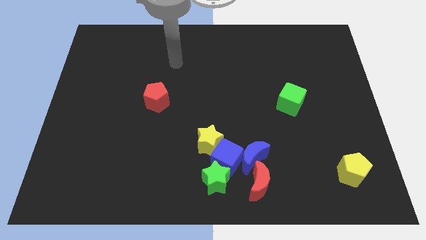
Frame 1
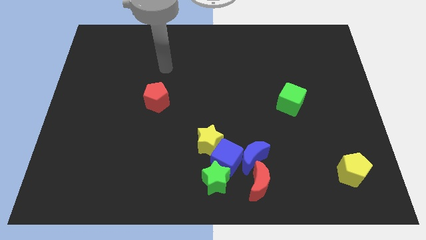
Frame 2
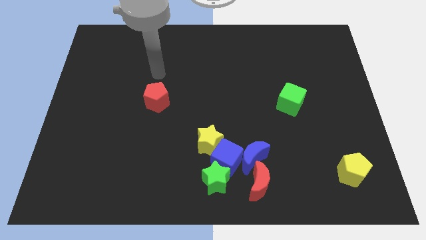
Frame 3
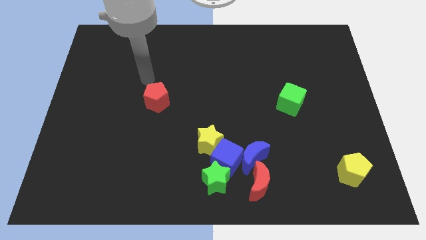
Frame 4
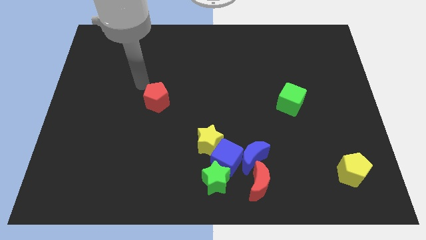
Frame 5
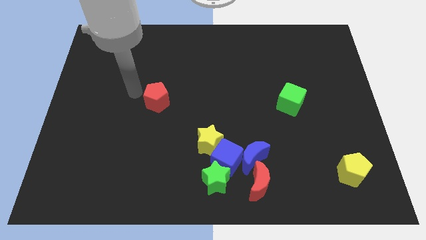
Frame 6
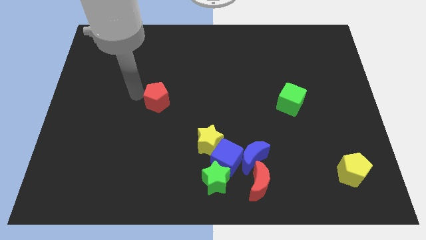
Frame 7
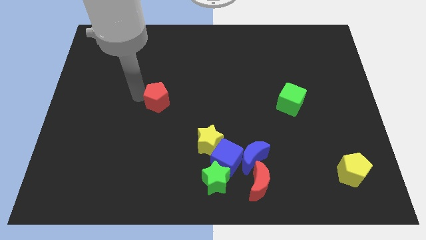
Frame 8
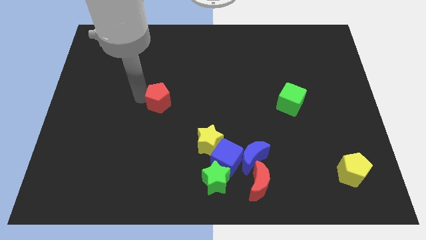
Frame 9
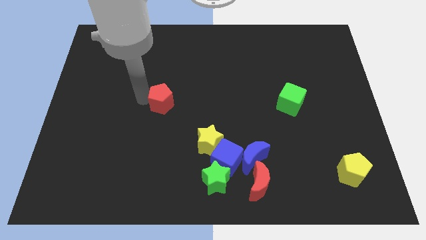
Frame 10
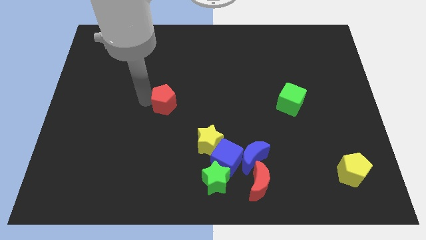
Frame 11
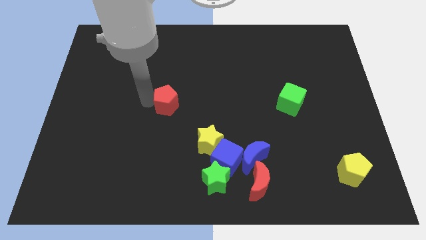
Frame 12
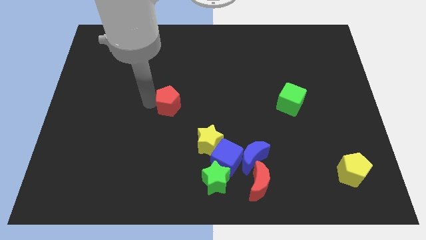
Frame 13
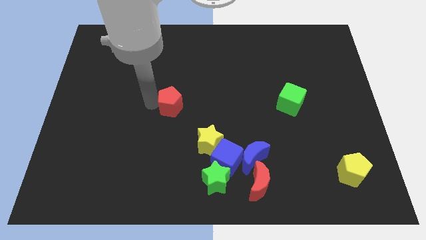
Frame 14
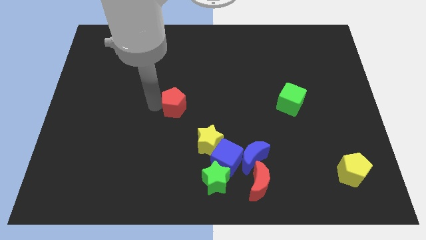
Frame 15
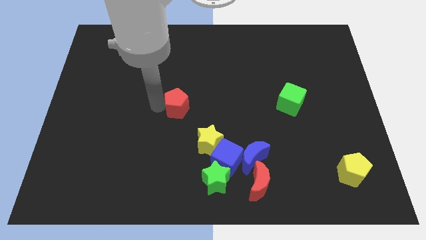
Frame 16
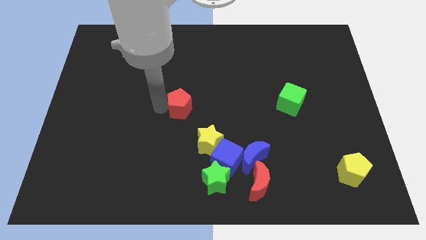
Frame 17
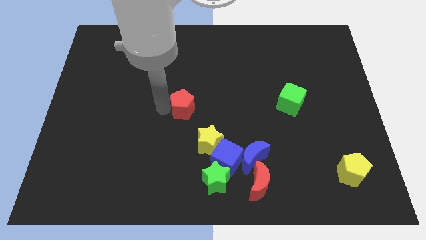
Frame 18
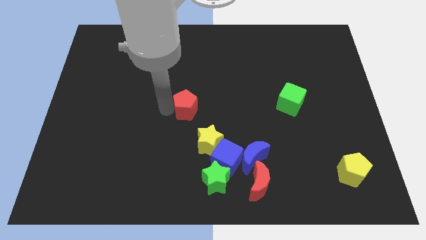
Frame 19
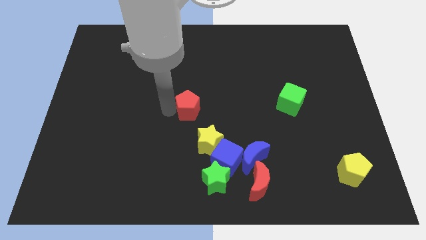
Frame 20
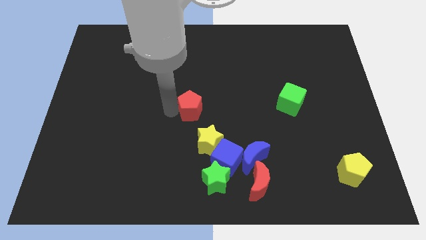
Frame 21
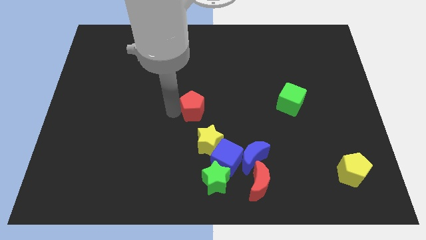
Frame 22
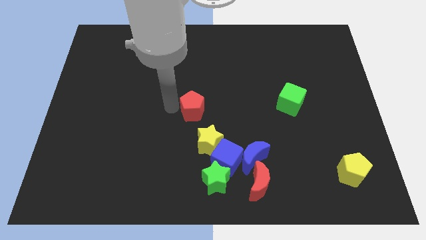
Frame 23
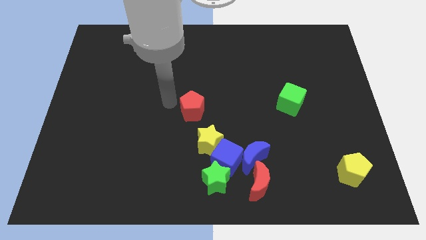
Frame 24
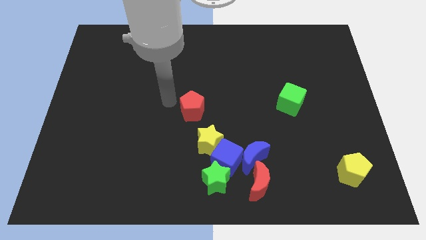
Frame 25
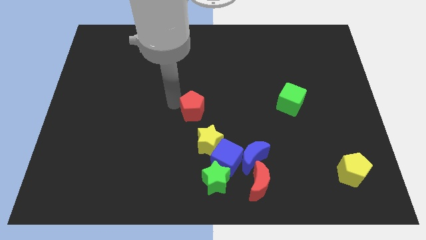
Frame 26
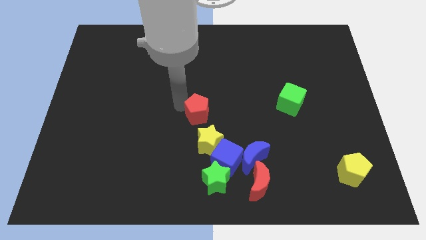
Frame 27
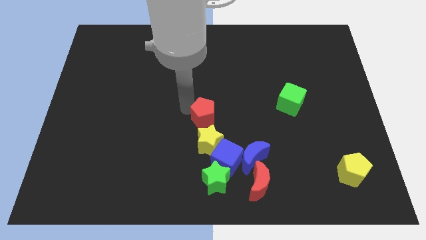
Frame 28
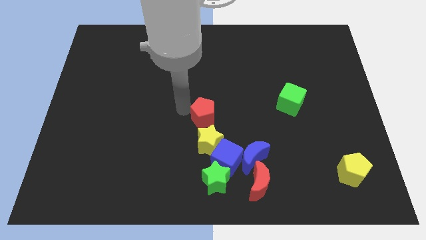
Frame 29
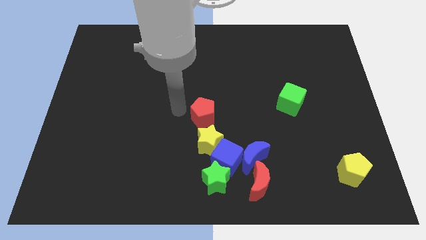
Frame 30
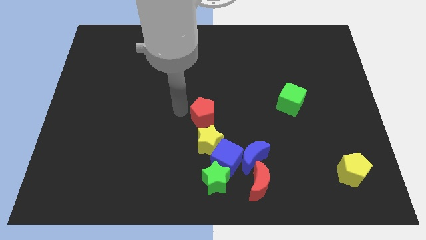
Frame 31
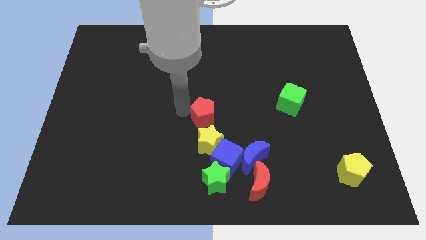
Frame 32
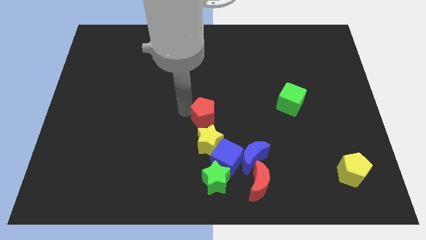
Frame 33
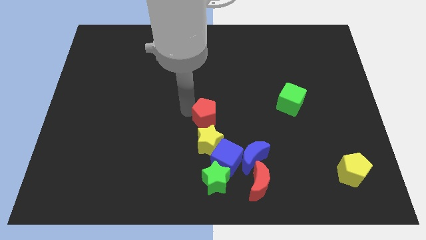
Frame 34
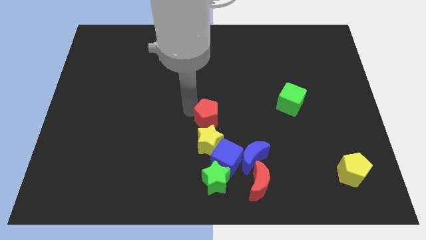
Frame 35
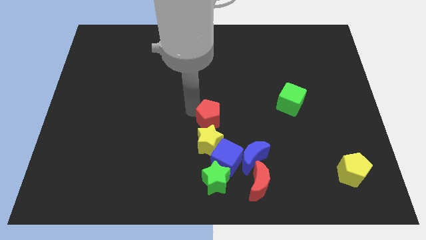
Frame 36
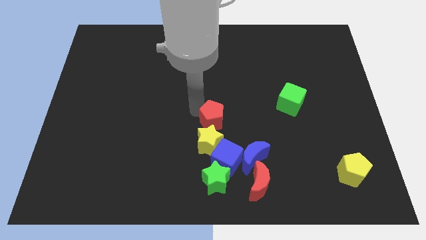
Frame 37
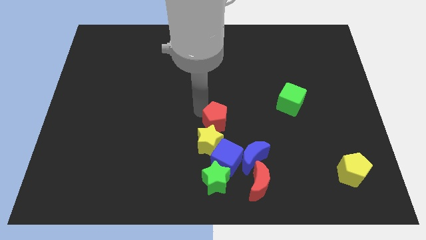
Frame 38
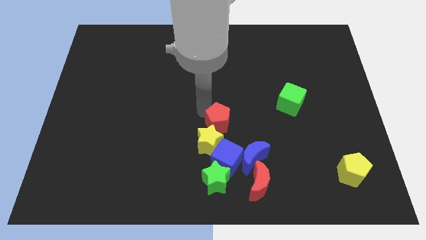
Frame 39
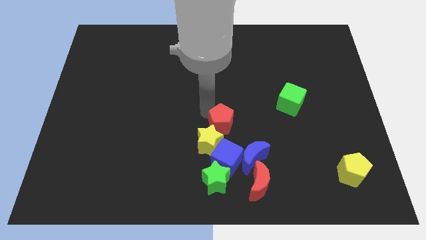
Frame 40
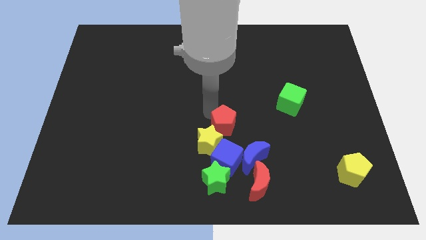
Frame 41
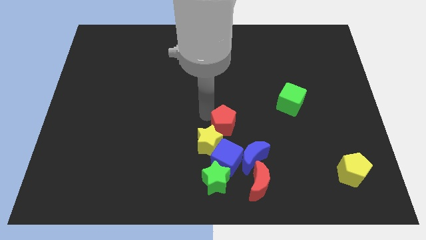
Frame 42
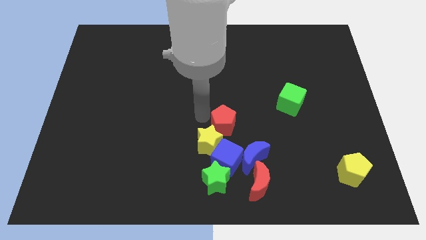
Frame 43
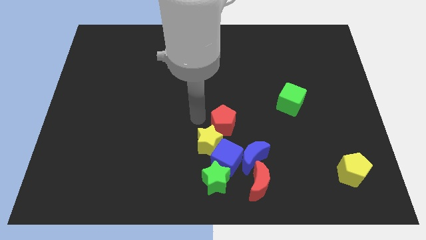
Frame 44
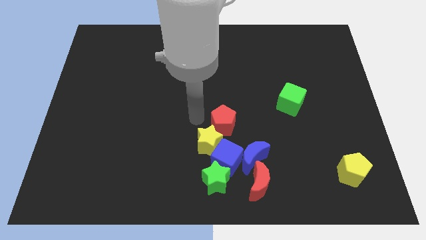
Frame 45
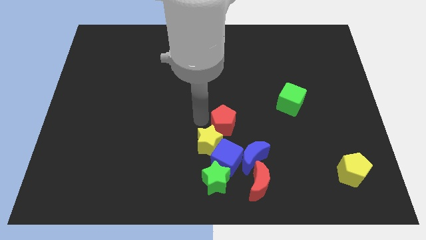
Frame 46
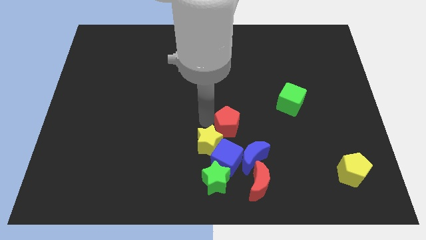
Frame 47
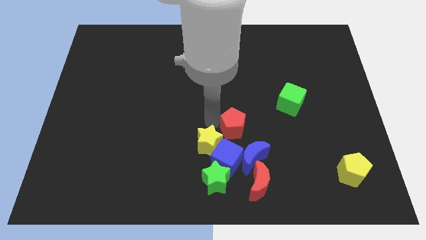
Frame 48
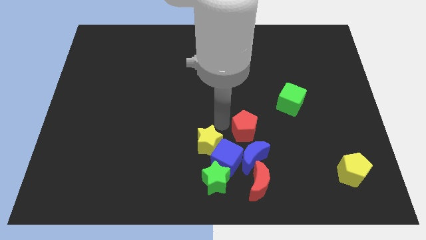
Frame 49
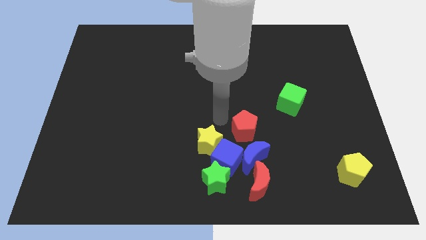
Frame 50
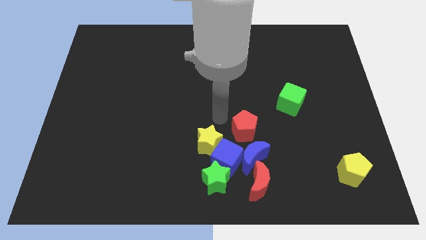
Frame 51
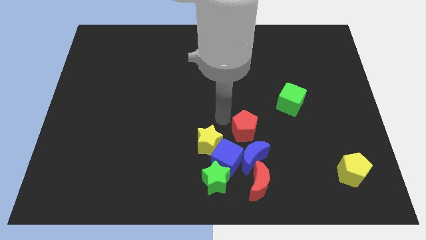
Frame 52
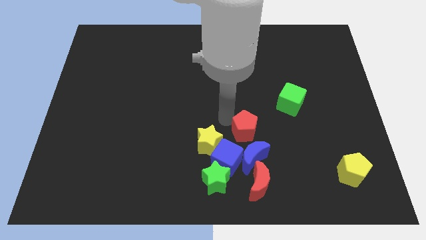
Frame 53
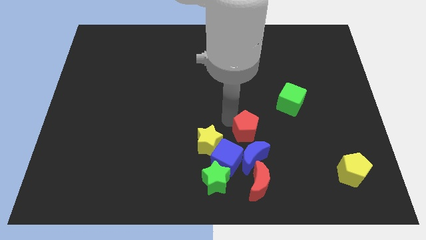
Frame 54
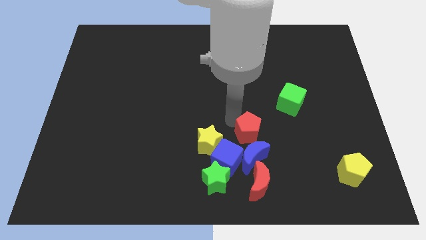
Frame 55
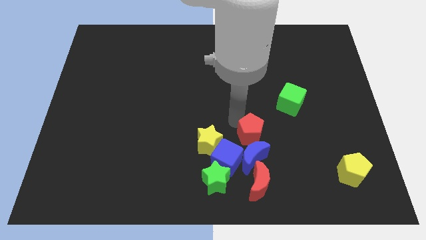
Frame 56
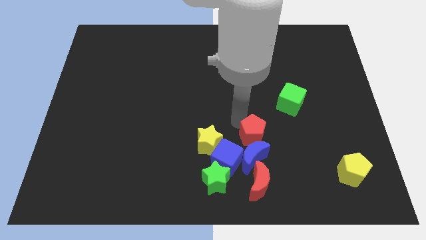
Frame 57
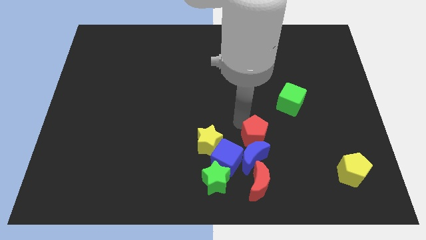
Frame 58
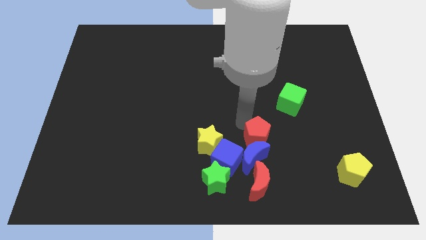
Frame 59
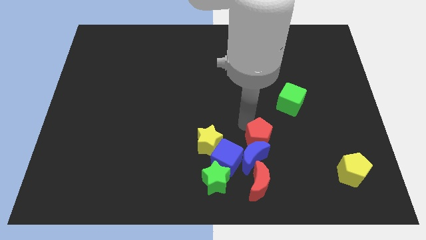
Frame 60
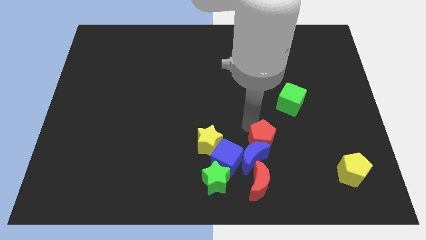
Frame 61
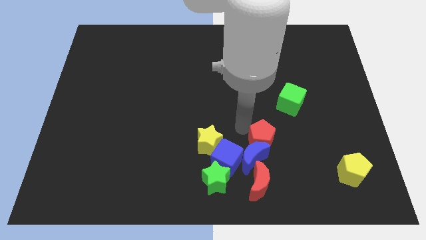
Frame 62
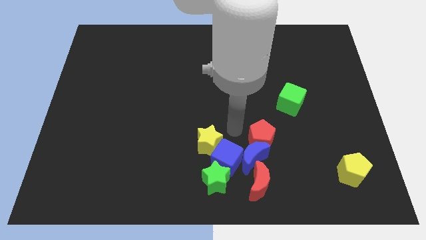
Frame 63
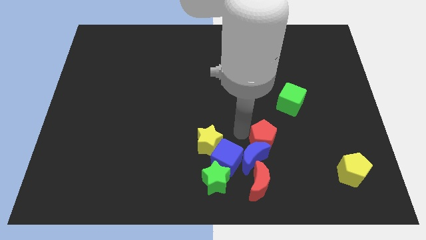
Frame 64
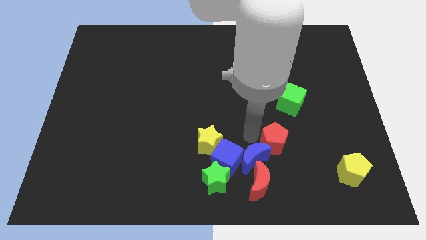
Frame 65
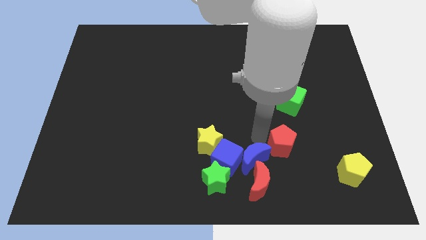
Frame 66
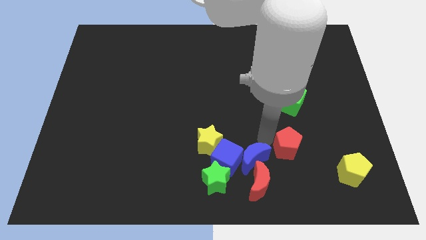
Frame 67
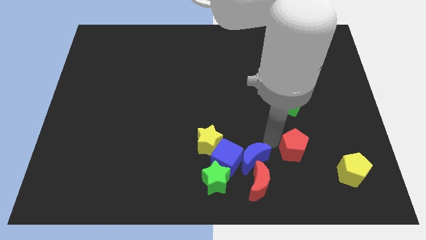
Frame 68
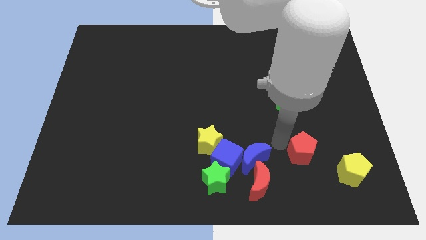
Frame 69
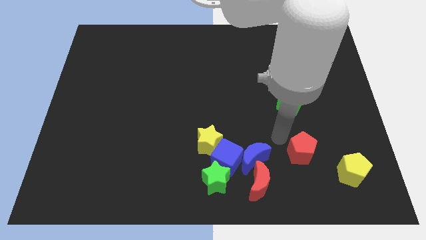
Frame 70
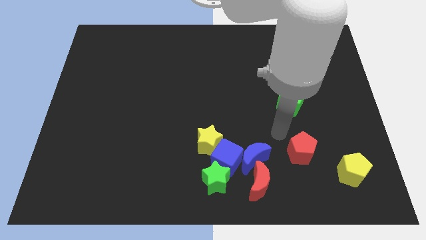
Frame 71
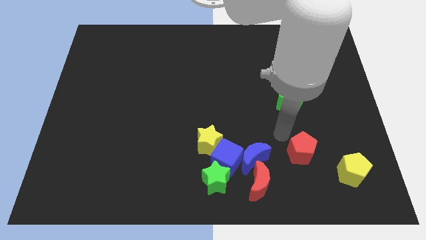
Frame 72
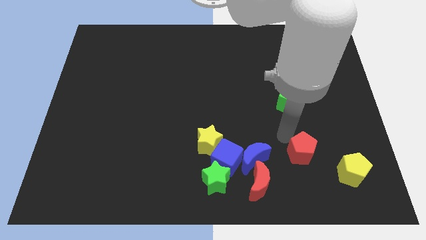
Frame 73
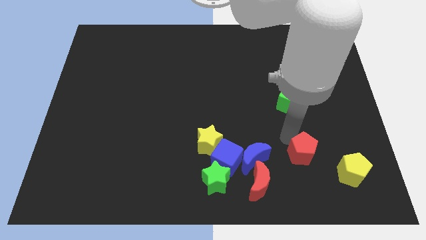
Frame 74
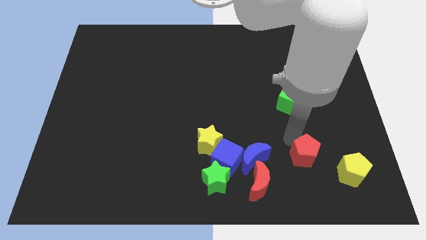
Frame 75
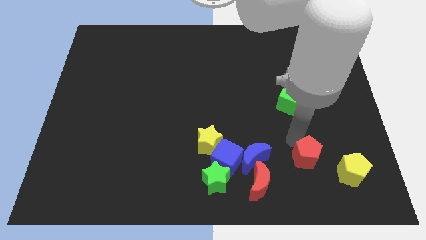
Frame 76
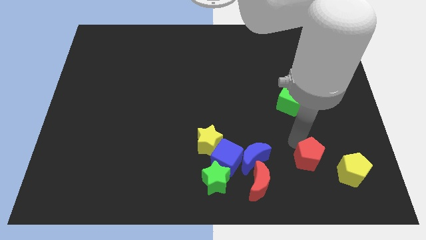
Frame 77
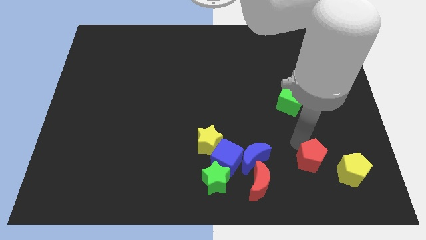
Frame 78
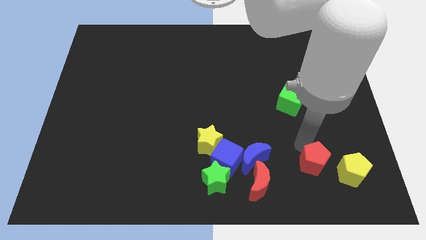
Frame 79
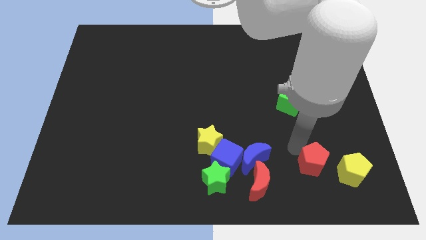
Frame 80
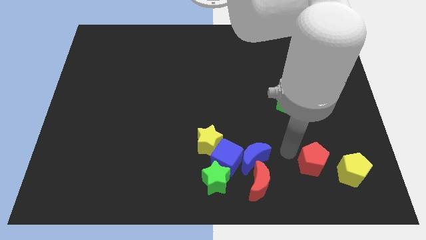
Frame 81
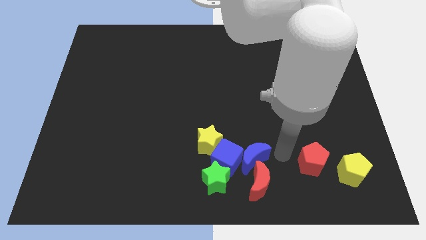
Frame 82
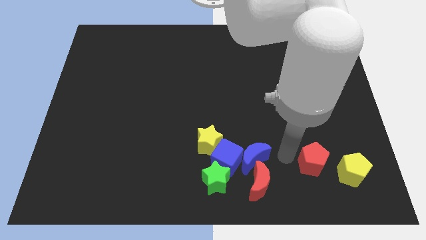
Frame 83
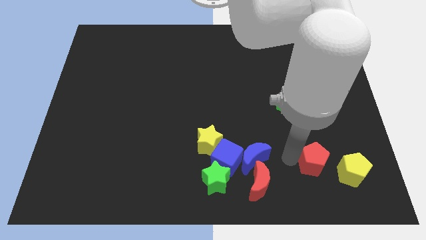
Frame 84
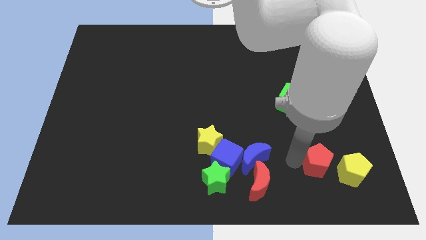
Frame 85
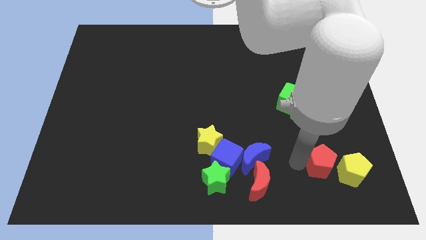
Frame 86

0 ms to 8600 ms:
push the red pentagon towards the yellow pentagon
